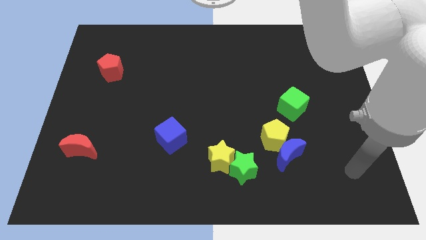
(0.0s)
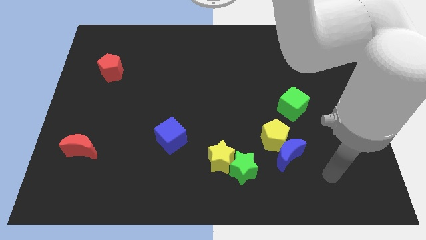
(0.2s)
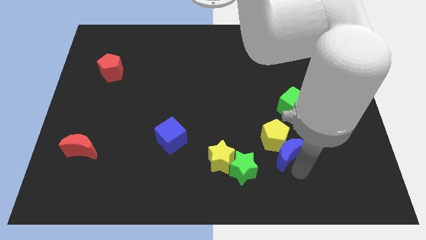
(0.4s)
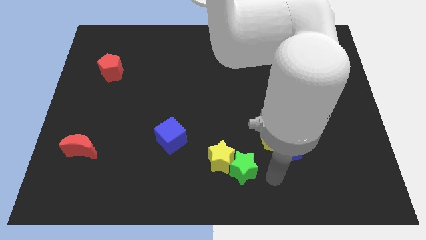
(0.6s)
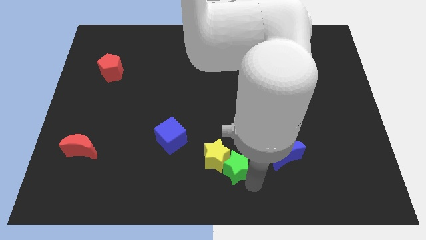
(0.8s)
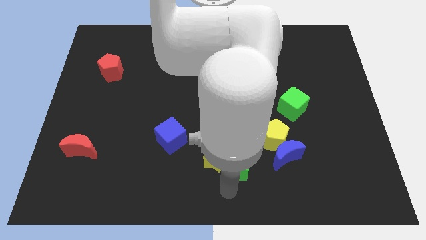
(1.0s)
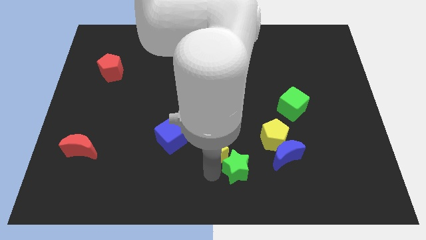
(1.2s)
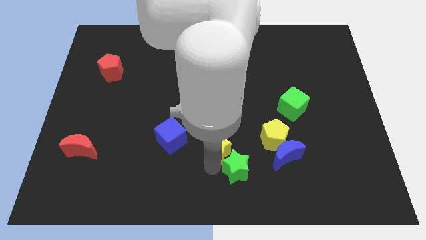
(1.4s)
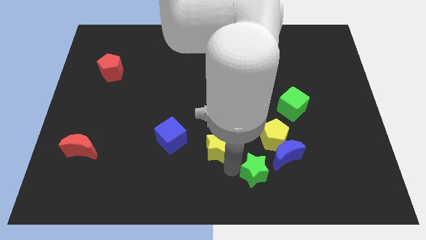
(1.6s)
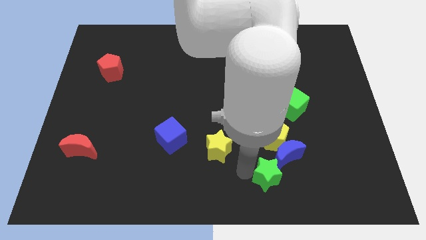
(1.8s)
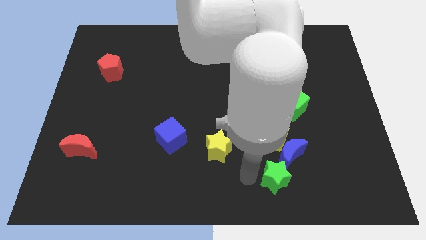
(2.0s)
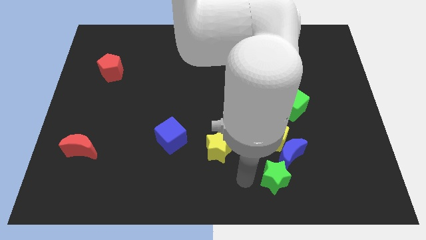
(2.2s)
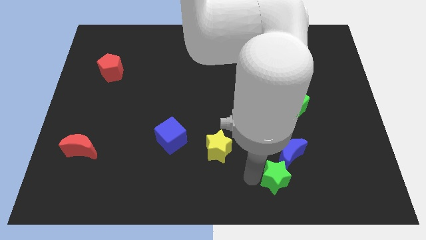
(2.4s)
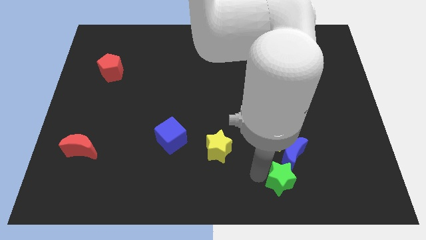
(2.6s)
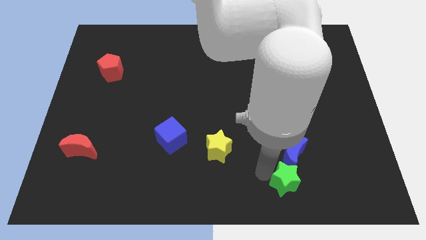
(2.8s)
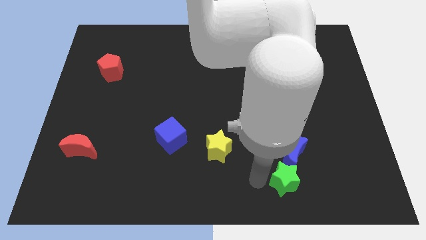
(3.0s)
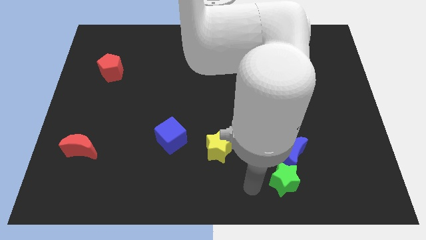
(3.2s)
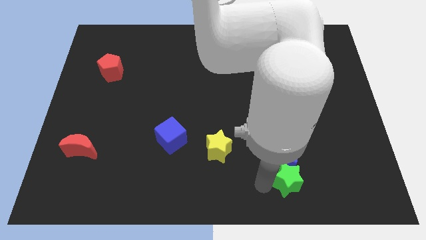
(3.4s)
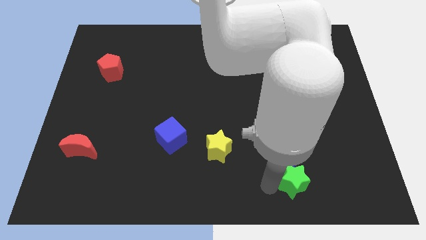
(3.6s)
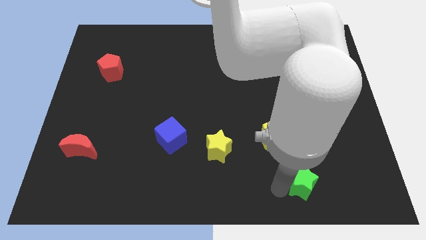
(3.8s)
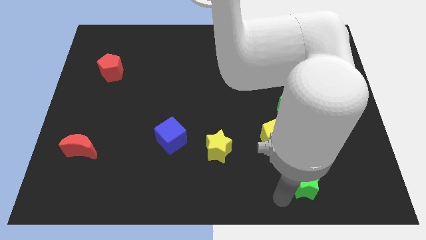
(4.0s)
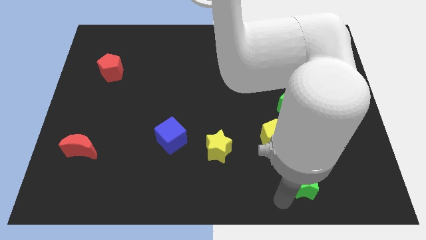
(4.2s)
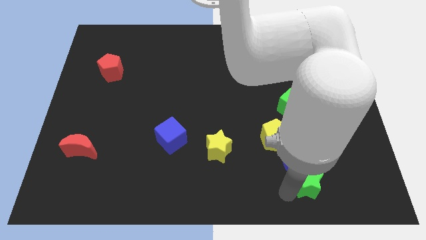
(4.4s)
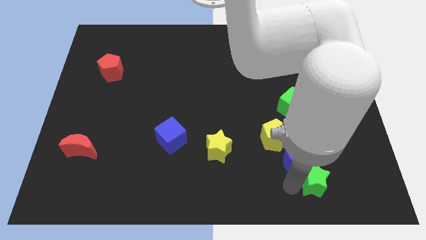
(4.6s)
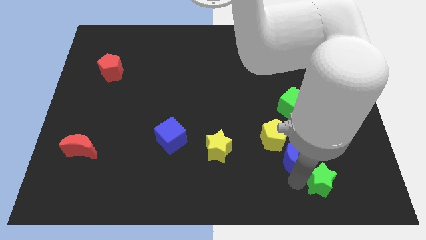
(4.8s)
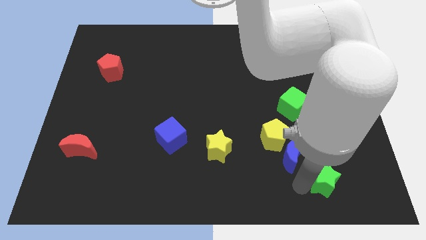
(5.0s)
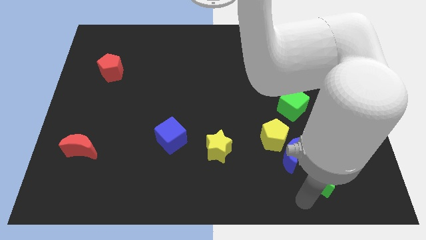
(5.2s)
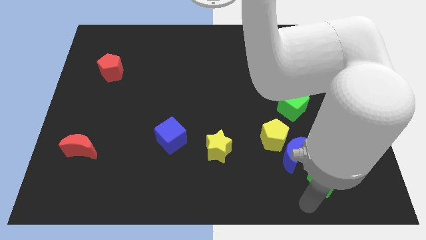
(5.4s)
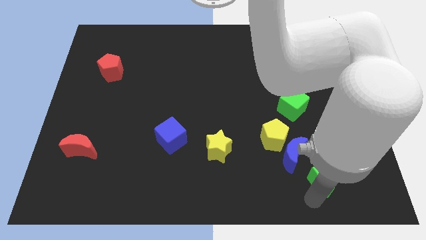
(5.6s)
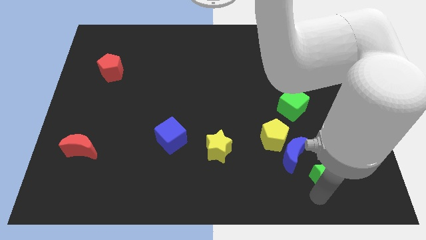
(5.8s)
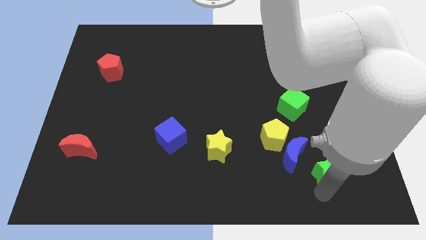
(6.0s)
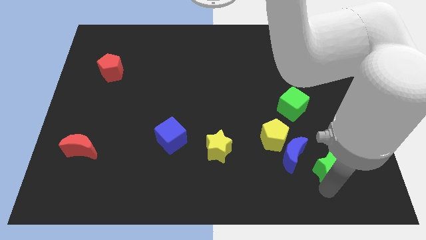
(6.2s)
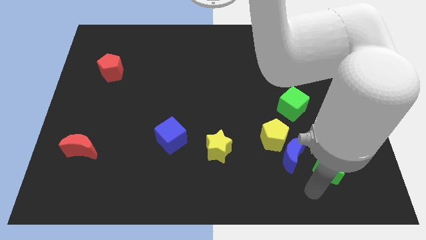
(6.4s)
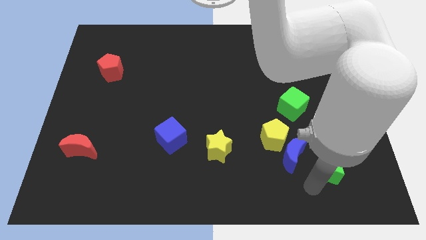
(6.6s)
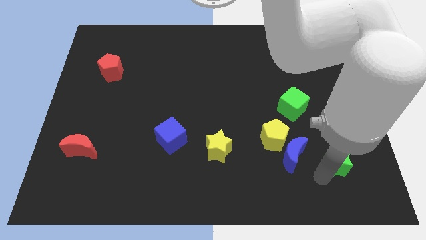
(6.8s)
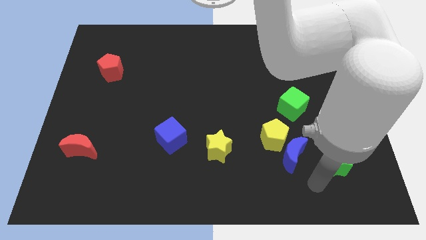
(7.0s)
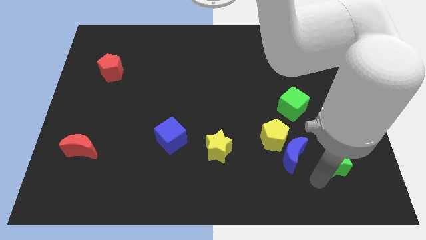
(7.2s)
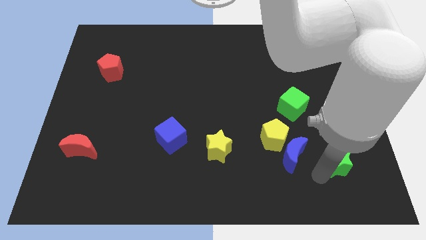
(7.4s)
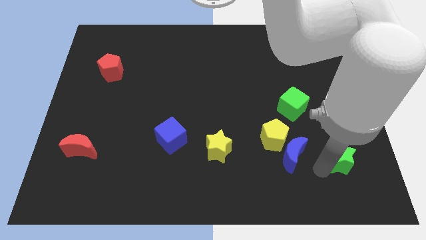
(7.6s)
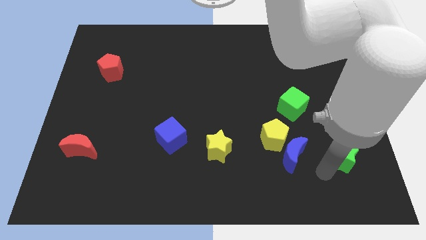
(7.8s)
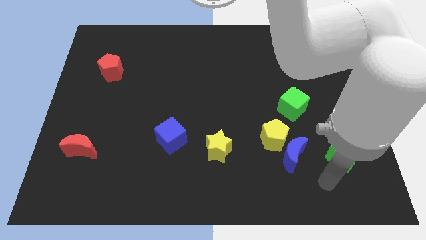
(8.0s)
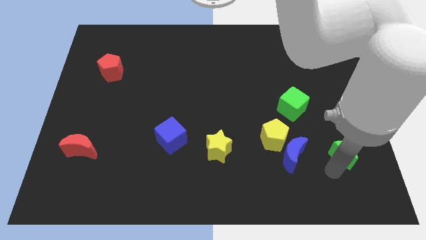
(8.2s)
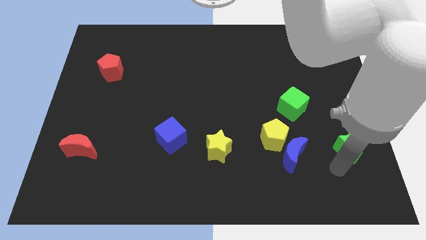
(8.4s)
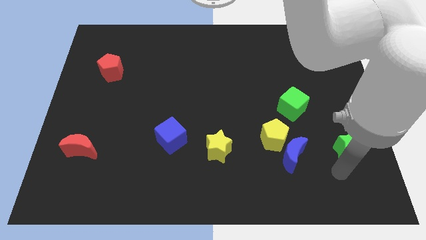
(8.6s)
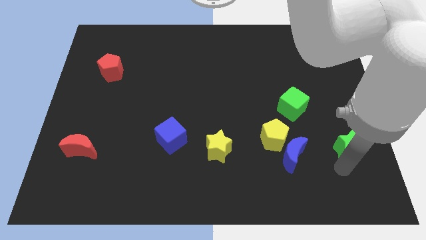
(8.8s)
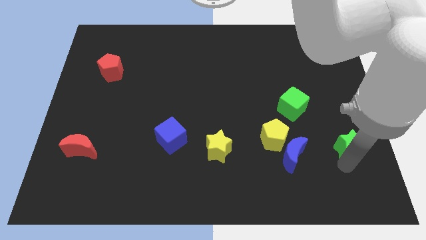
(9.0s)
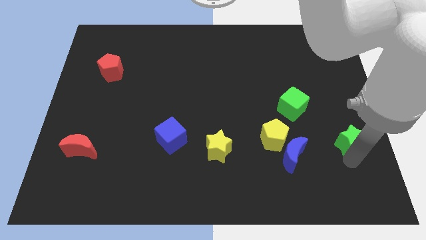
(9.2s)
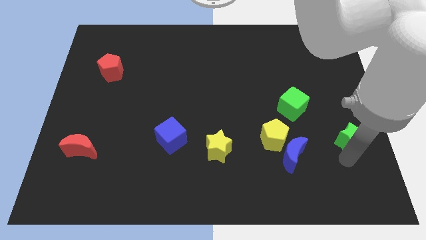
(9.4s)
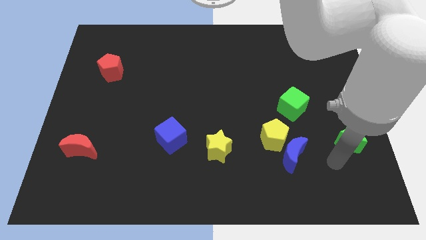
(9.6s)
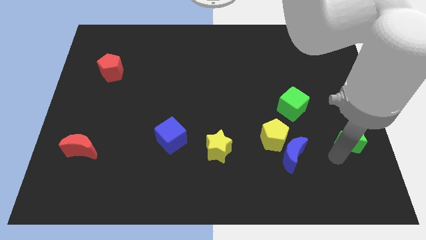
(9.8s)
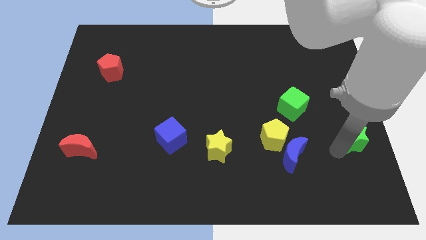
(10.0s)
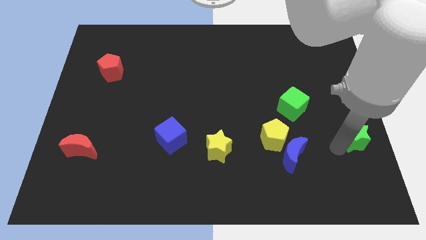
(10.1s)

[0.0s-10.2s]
slide the green star to the center right

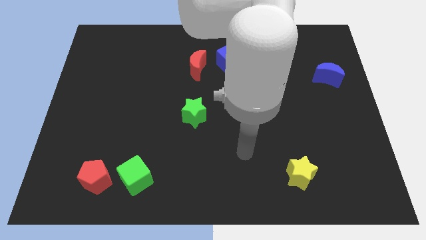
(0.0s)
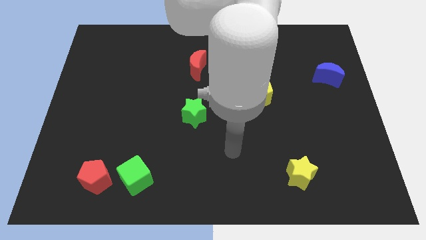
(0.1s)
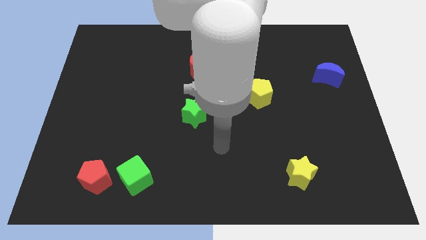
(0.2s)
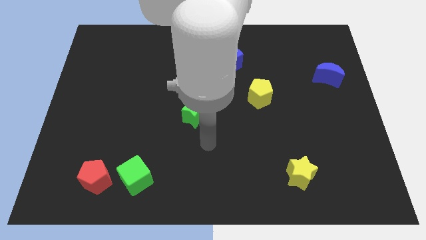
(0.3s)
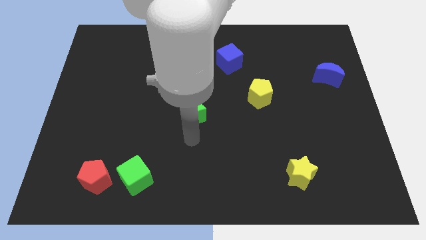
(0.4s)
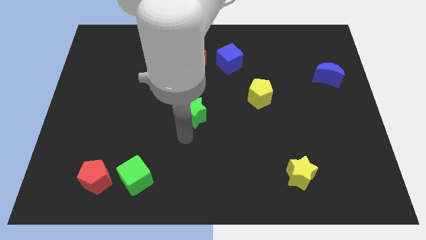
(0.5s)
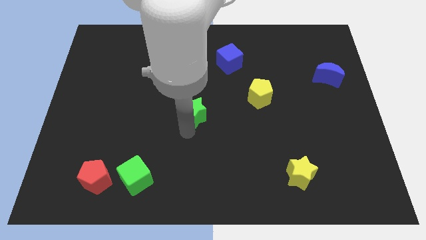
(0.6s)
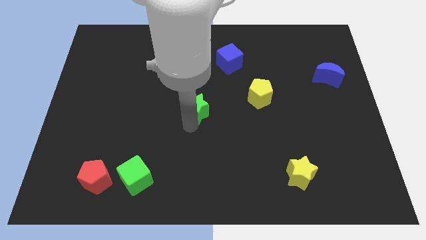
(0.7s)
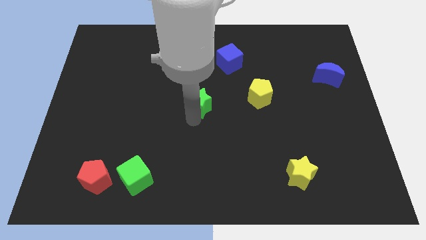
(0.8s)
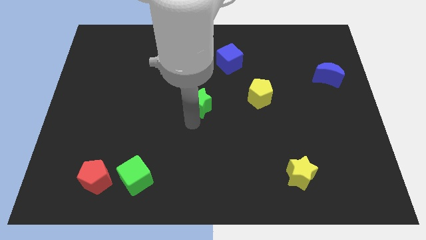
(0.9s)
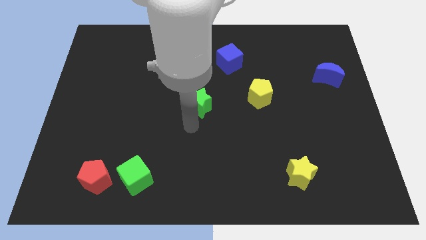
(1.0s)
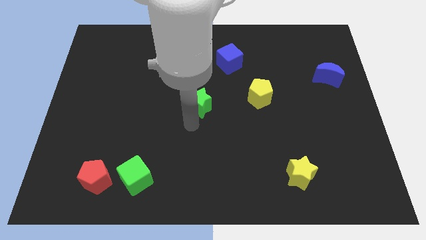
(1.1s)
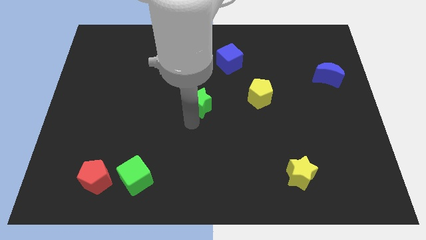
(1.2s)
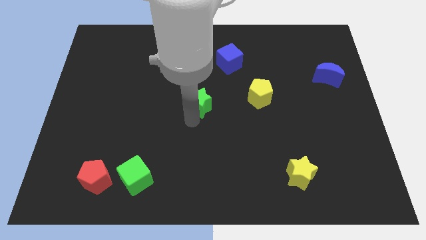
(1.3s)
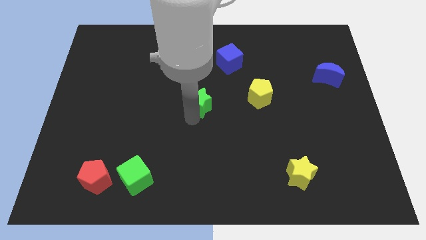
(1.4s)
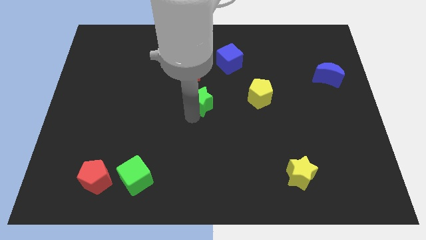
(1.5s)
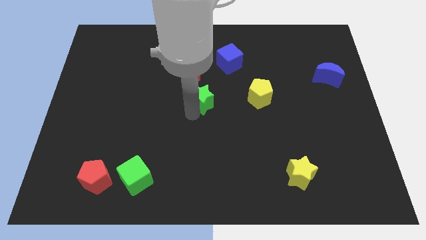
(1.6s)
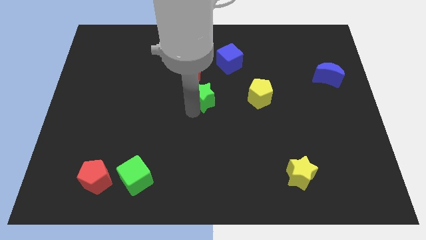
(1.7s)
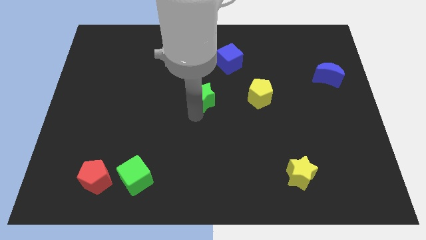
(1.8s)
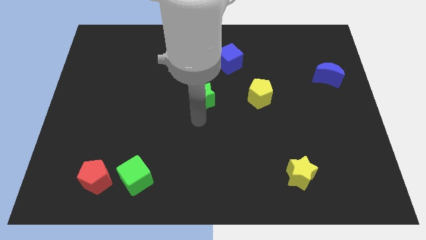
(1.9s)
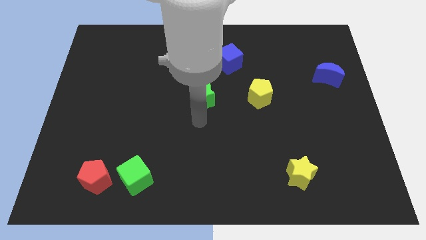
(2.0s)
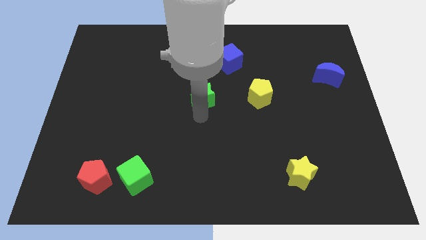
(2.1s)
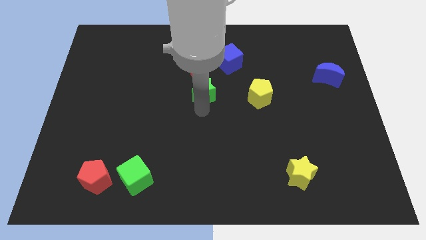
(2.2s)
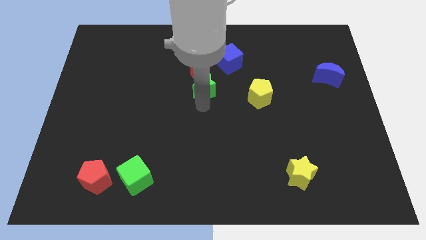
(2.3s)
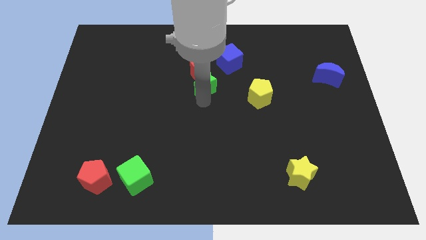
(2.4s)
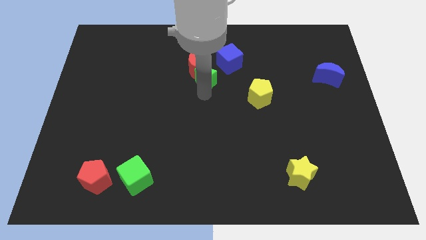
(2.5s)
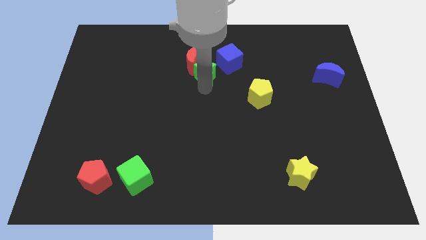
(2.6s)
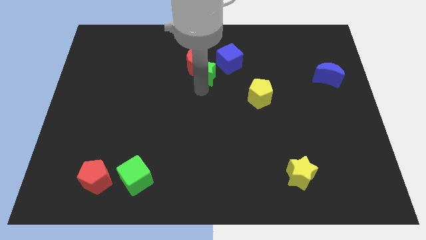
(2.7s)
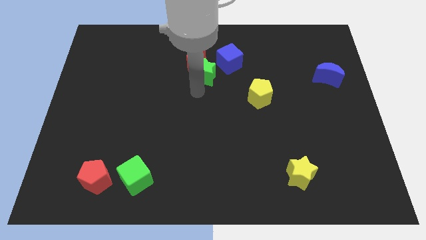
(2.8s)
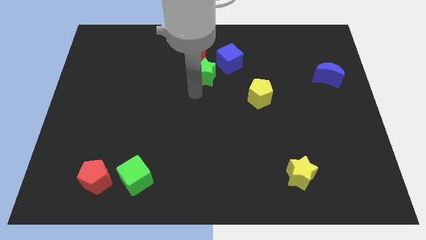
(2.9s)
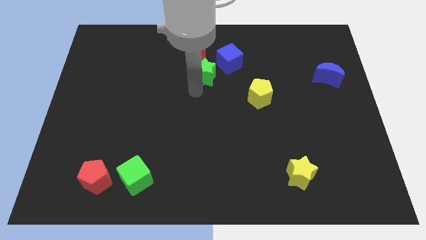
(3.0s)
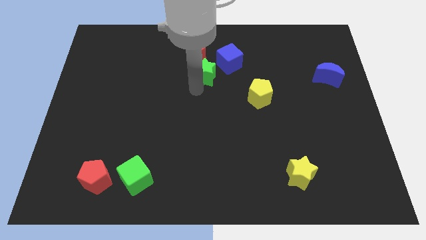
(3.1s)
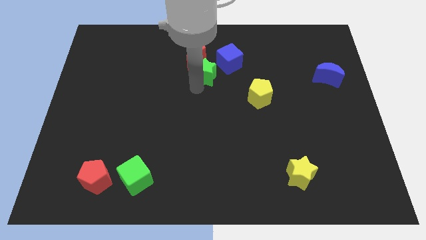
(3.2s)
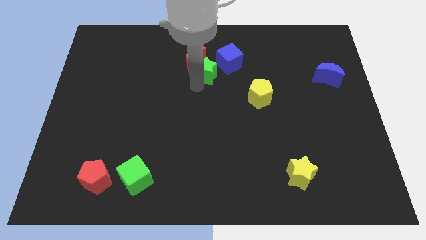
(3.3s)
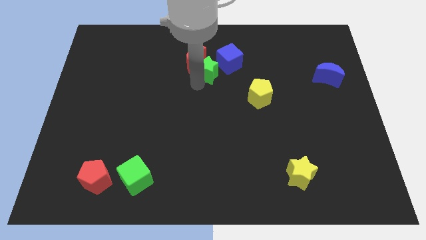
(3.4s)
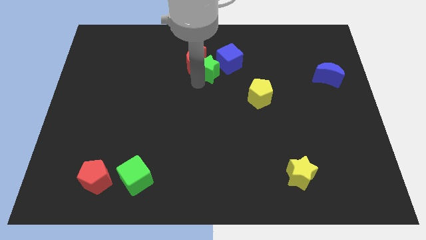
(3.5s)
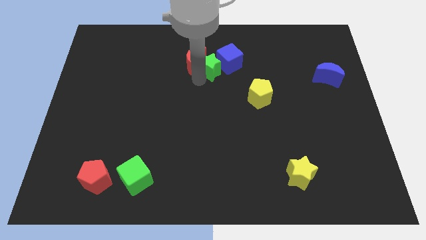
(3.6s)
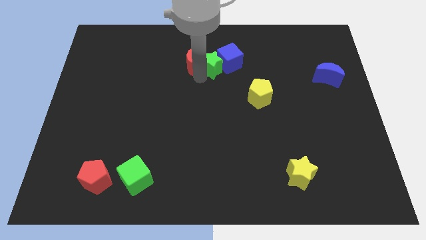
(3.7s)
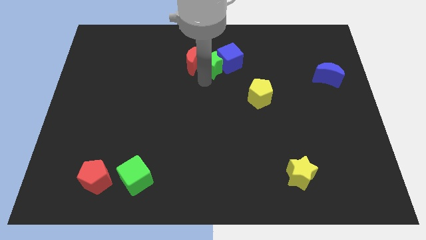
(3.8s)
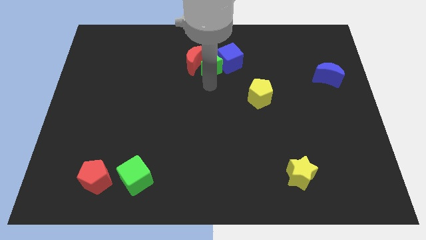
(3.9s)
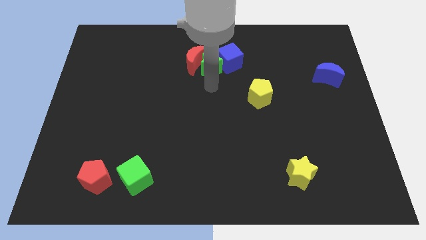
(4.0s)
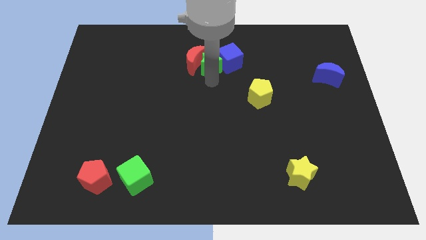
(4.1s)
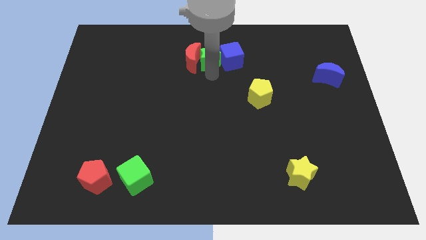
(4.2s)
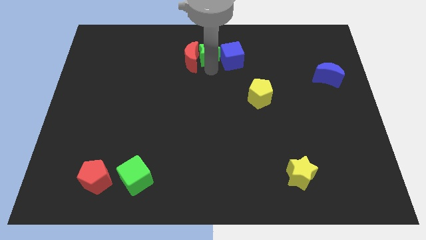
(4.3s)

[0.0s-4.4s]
push the green star to the towards your base
